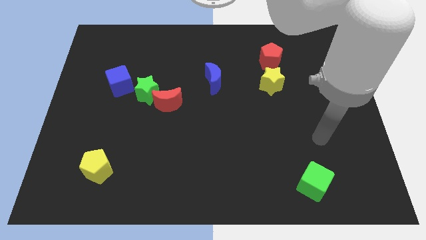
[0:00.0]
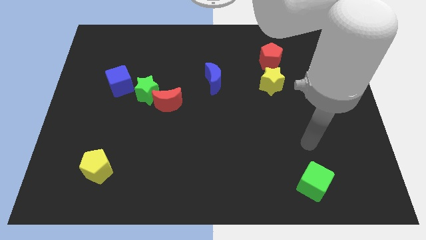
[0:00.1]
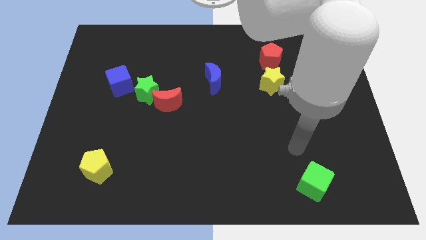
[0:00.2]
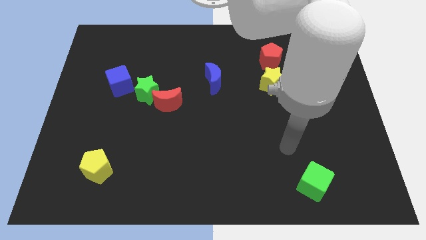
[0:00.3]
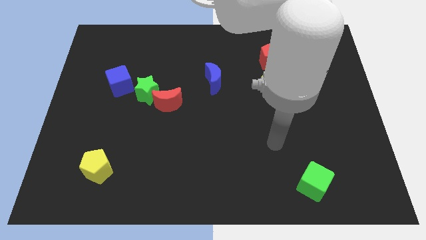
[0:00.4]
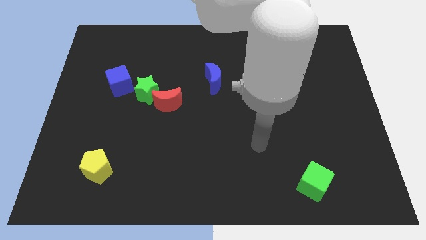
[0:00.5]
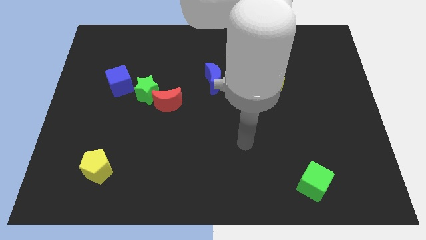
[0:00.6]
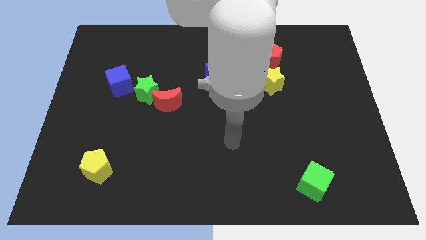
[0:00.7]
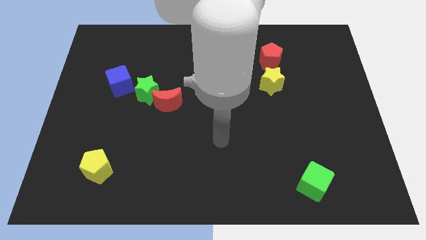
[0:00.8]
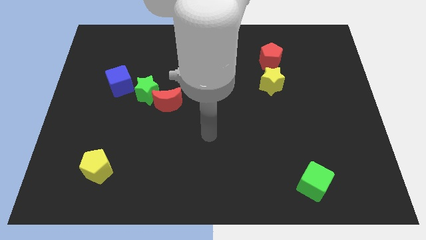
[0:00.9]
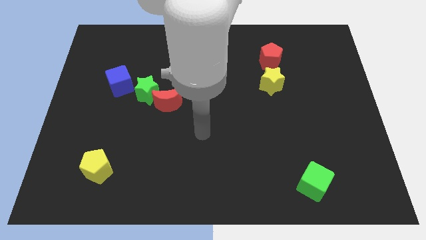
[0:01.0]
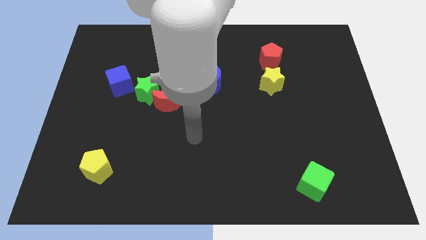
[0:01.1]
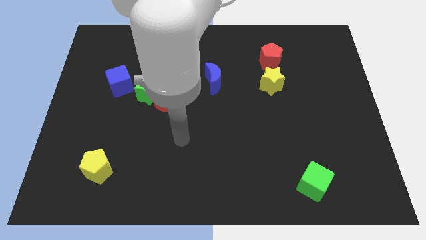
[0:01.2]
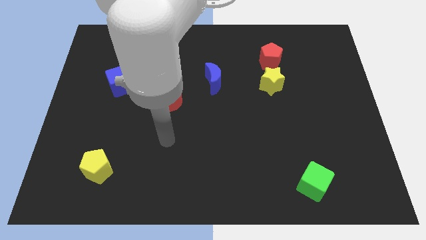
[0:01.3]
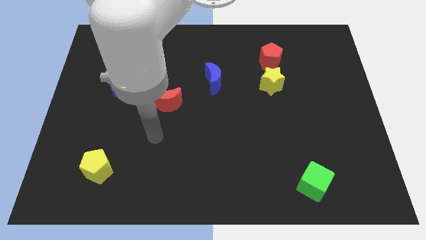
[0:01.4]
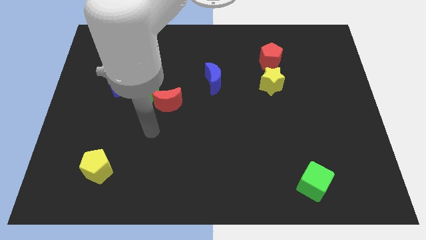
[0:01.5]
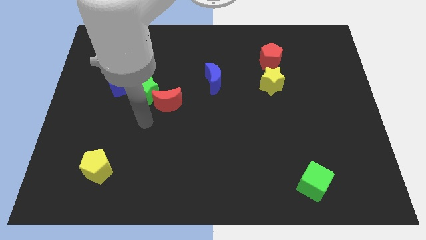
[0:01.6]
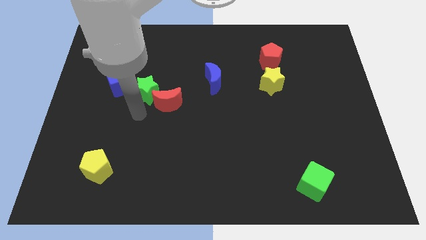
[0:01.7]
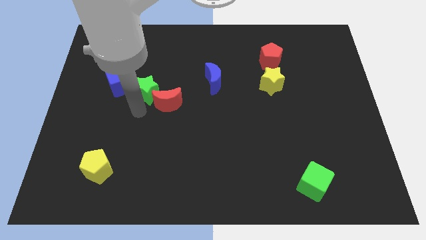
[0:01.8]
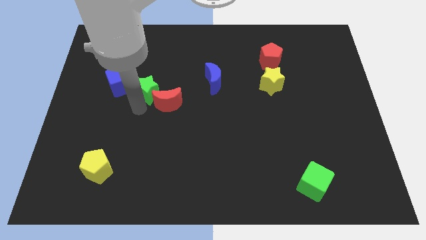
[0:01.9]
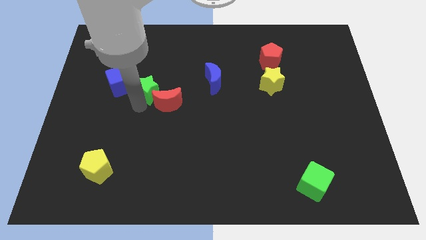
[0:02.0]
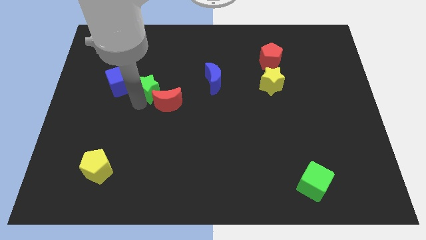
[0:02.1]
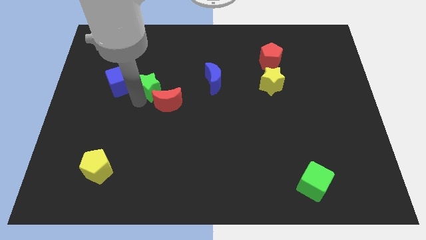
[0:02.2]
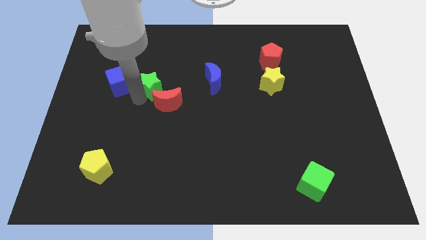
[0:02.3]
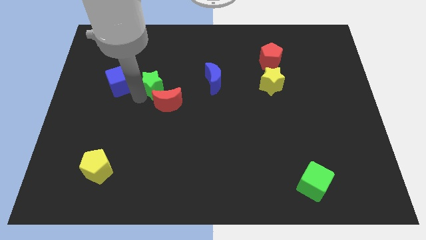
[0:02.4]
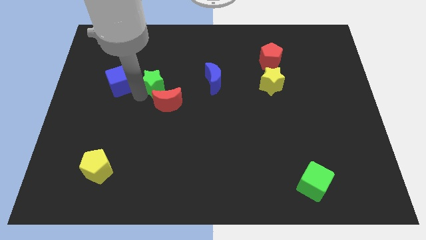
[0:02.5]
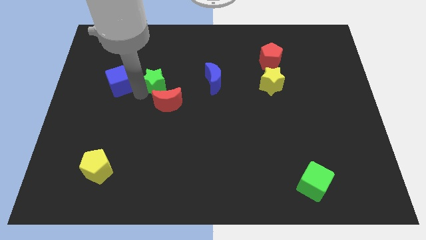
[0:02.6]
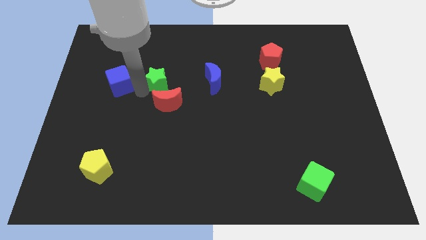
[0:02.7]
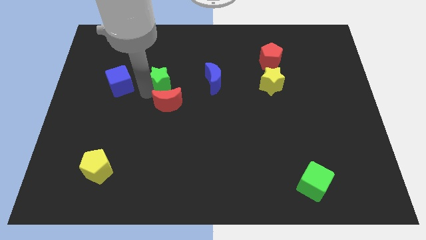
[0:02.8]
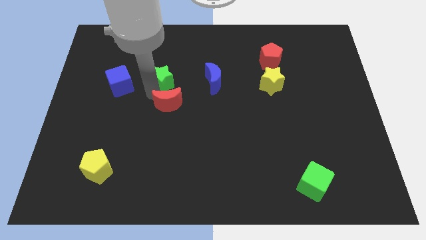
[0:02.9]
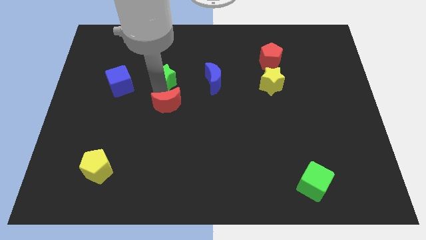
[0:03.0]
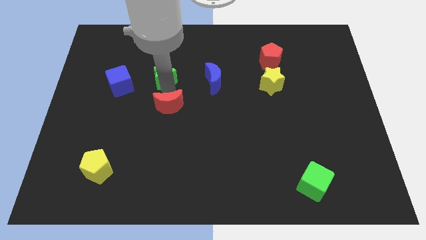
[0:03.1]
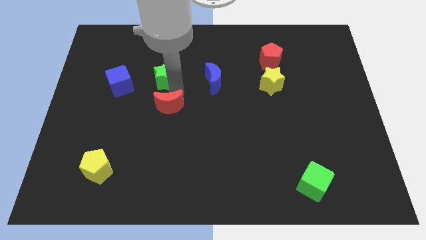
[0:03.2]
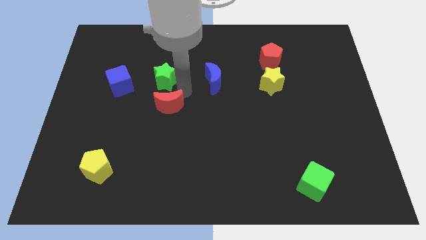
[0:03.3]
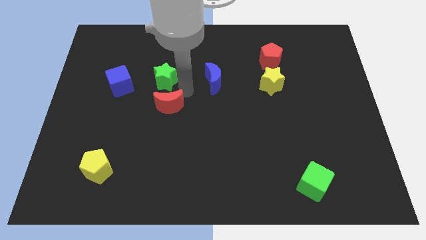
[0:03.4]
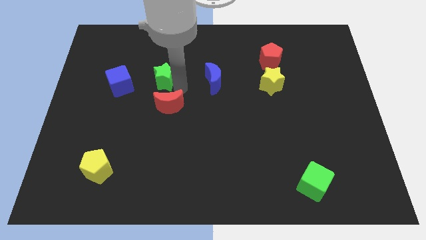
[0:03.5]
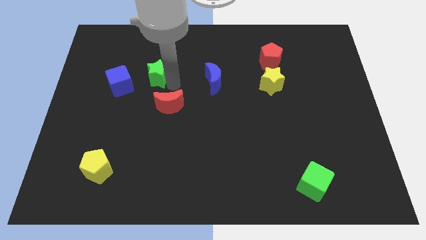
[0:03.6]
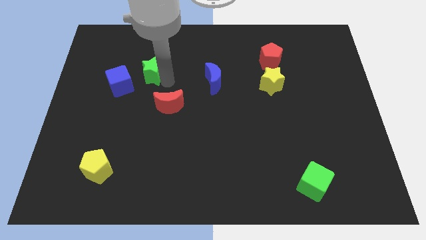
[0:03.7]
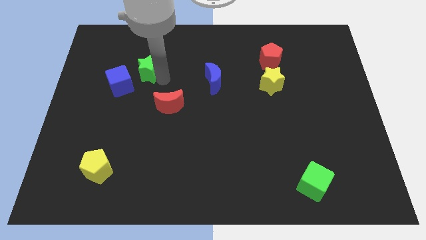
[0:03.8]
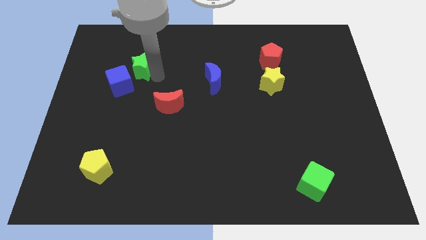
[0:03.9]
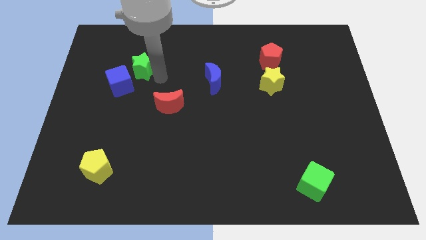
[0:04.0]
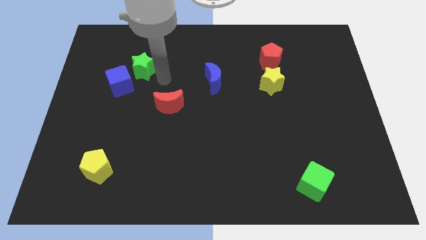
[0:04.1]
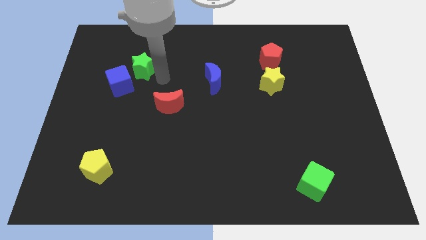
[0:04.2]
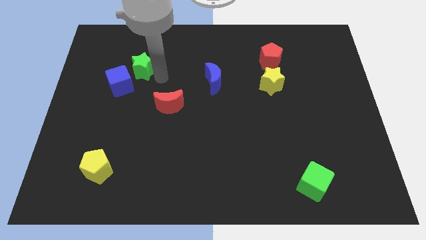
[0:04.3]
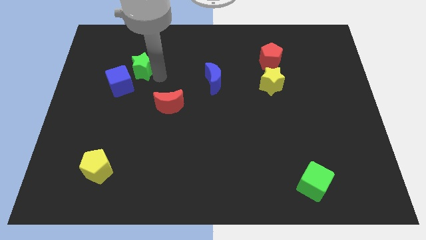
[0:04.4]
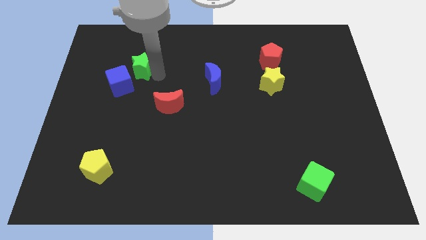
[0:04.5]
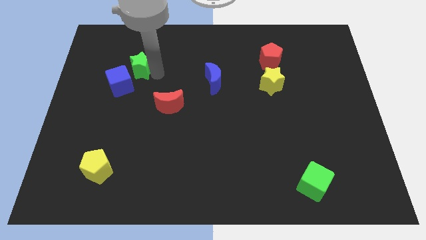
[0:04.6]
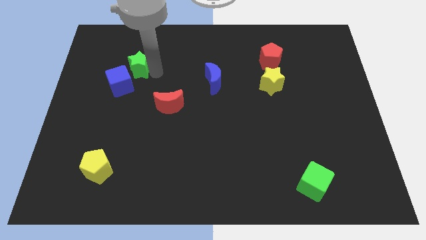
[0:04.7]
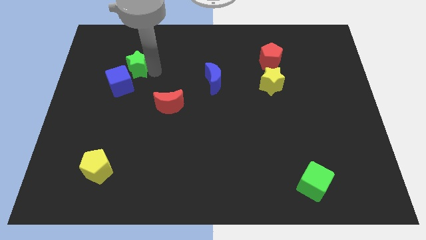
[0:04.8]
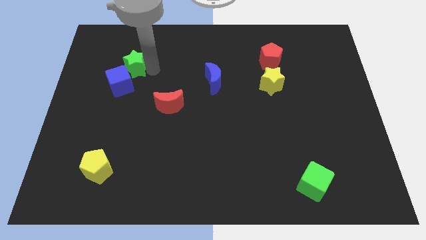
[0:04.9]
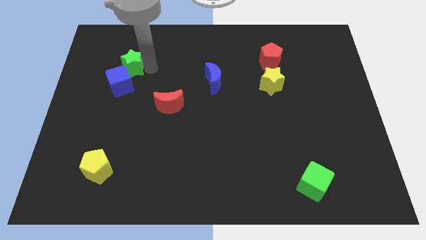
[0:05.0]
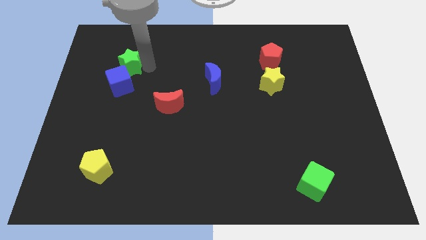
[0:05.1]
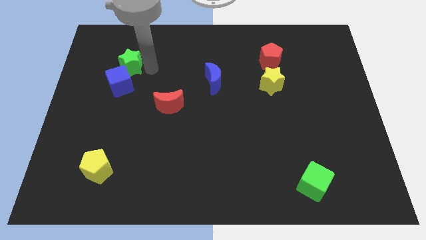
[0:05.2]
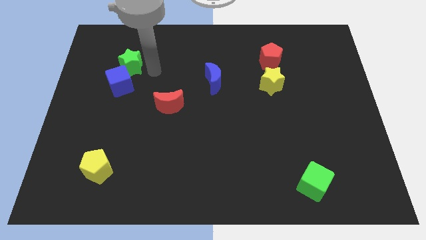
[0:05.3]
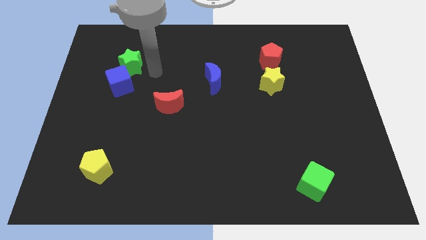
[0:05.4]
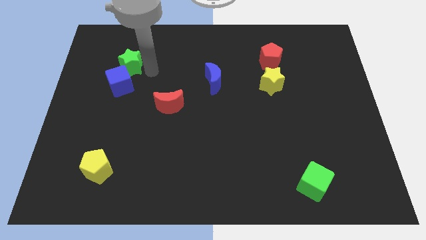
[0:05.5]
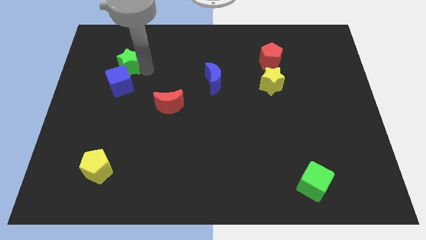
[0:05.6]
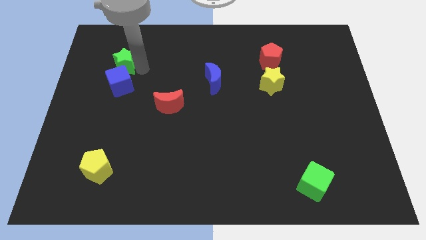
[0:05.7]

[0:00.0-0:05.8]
move the green star to the top left of the blue cube
